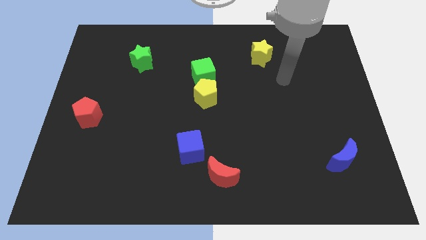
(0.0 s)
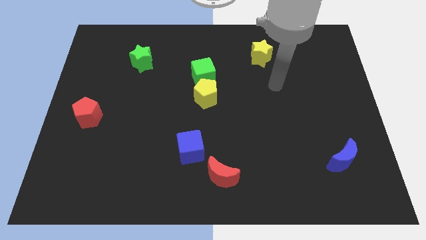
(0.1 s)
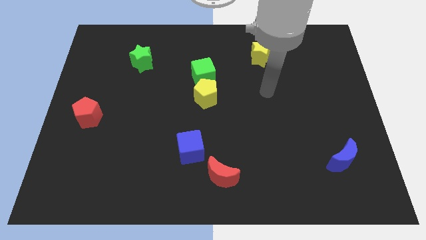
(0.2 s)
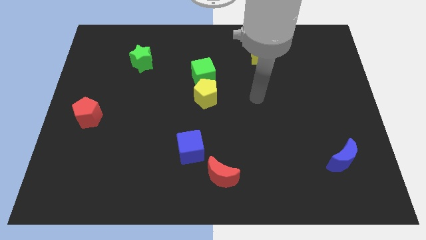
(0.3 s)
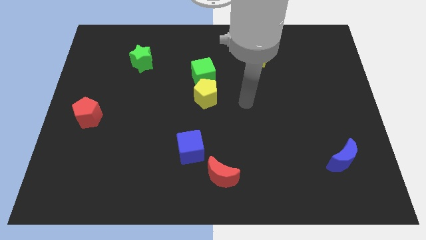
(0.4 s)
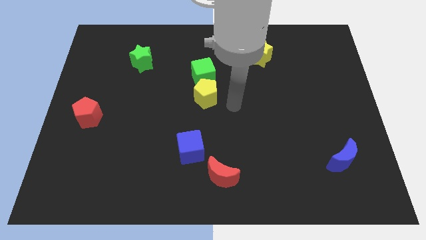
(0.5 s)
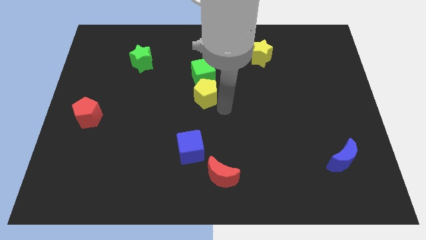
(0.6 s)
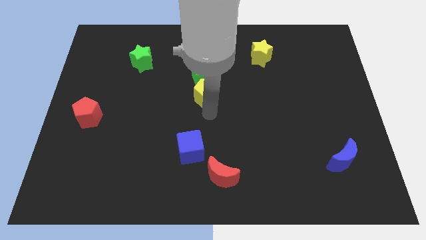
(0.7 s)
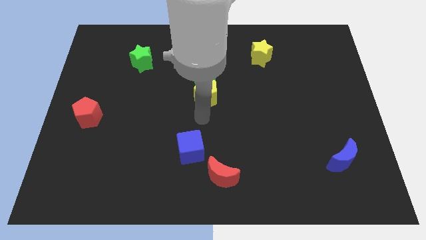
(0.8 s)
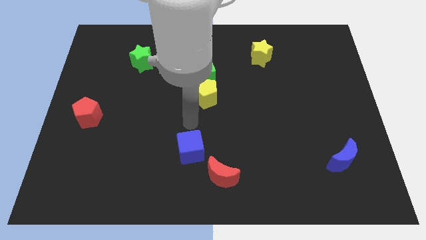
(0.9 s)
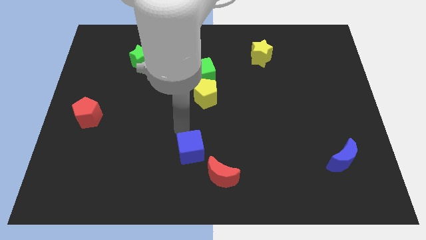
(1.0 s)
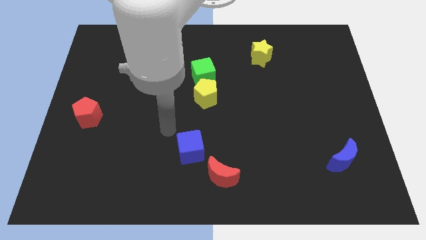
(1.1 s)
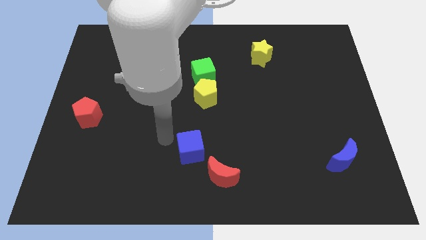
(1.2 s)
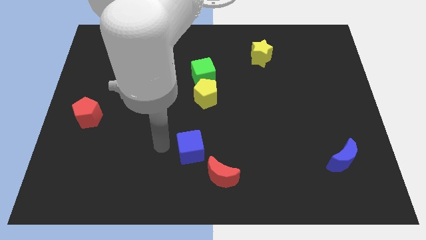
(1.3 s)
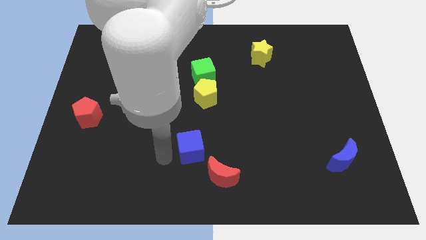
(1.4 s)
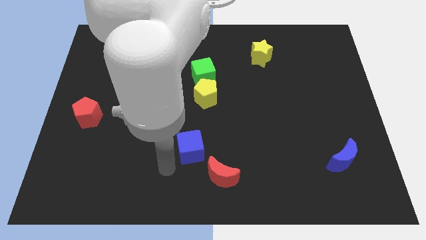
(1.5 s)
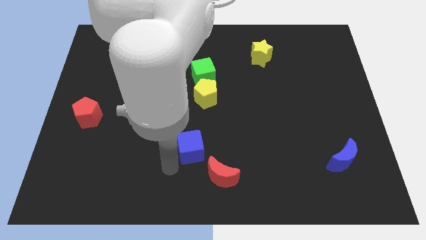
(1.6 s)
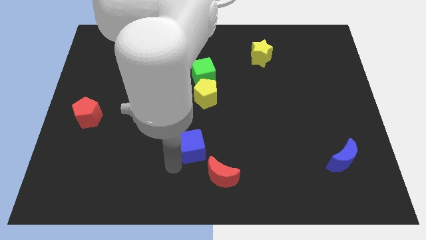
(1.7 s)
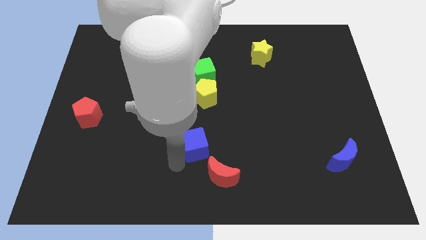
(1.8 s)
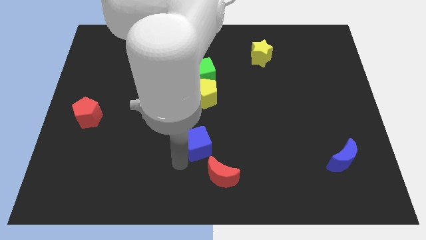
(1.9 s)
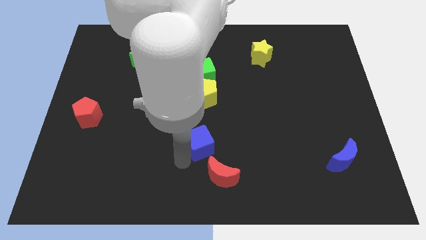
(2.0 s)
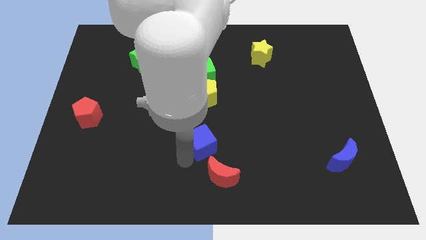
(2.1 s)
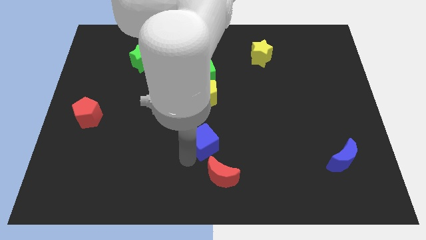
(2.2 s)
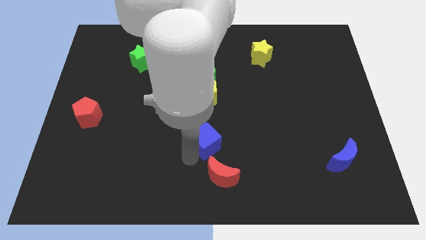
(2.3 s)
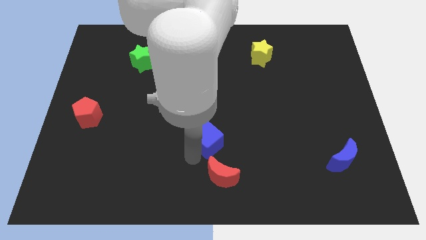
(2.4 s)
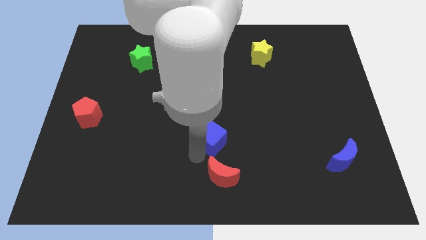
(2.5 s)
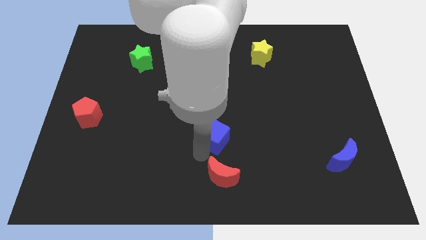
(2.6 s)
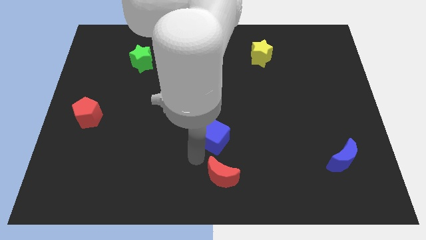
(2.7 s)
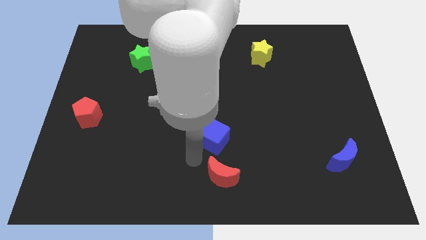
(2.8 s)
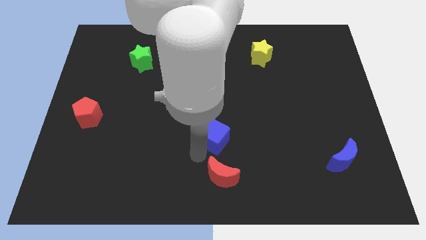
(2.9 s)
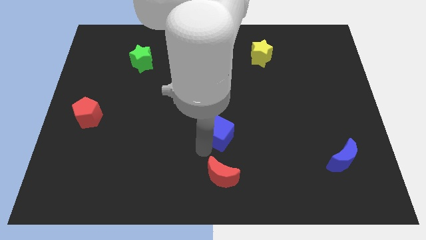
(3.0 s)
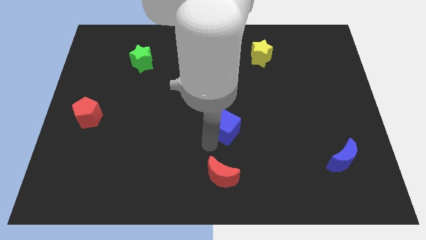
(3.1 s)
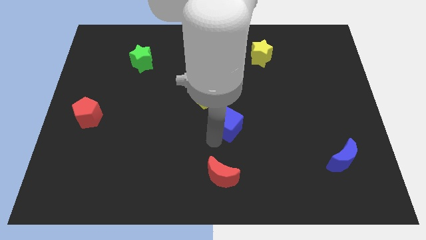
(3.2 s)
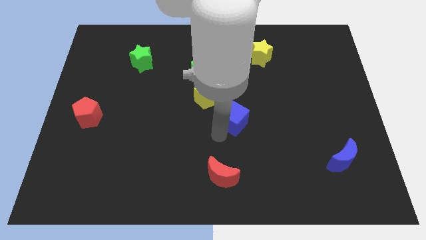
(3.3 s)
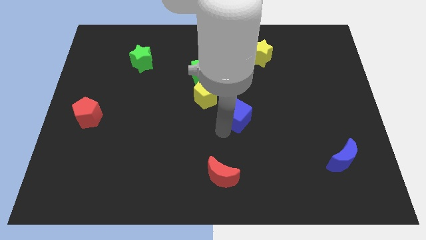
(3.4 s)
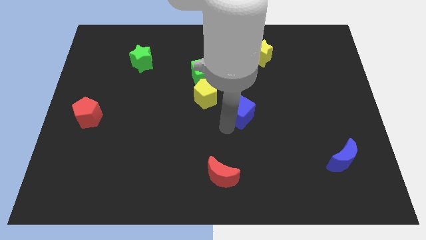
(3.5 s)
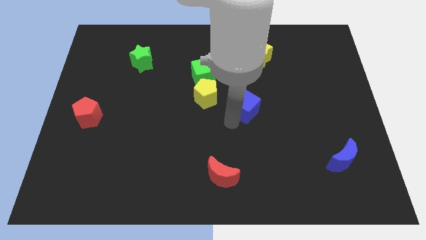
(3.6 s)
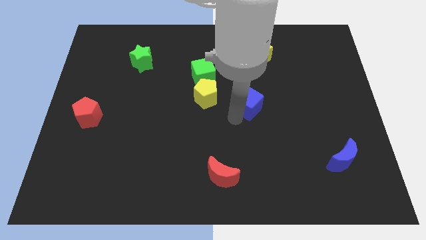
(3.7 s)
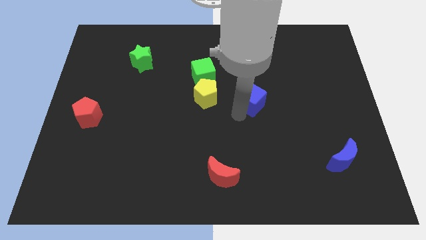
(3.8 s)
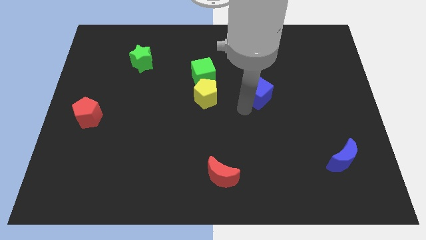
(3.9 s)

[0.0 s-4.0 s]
slide the blue cube up and then to the right

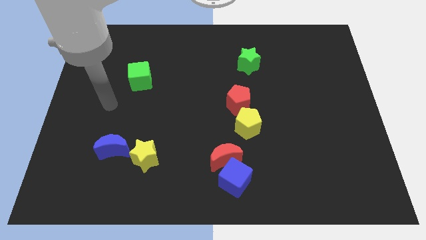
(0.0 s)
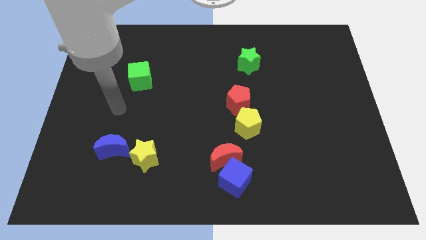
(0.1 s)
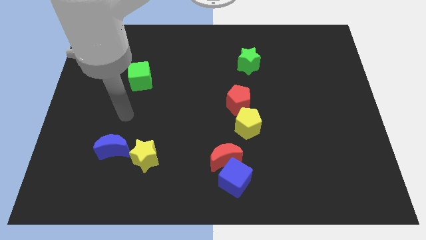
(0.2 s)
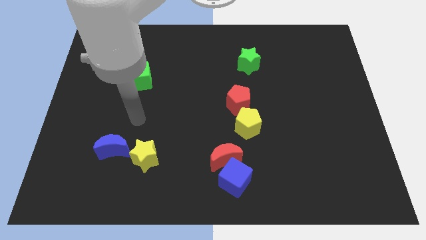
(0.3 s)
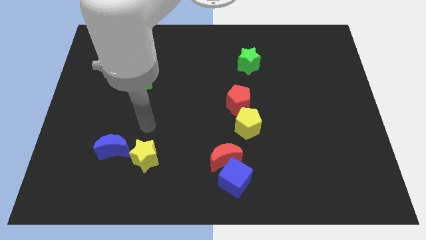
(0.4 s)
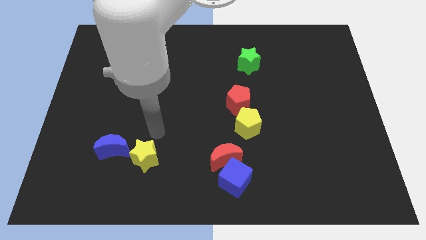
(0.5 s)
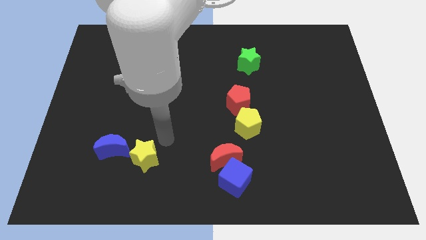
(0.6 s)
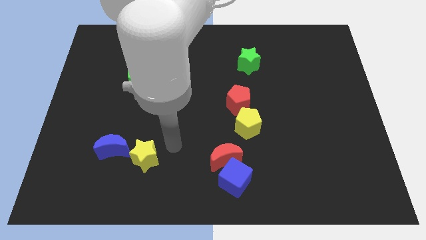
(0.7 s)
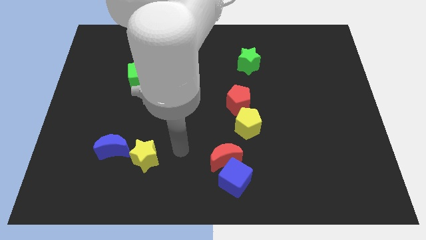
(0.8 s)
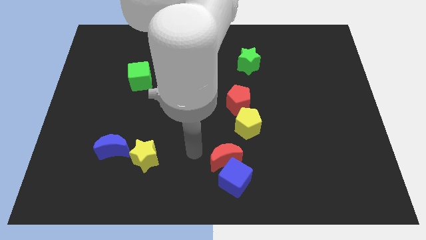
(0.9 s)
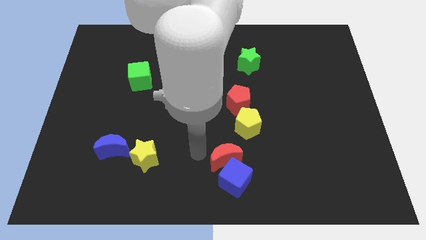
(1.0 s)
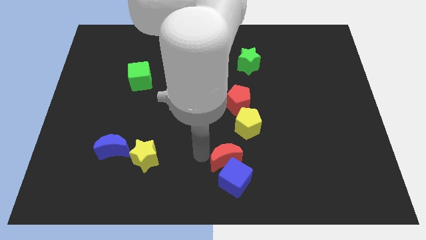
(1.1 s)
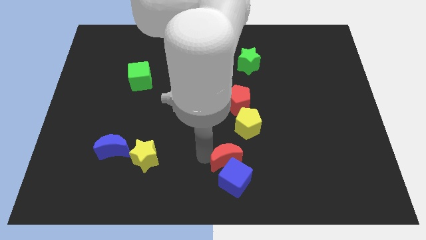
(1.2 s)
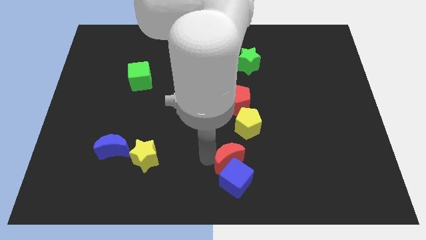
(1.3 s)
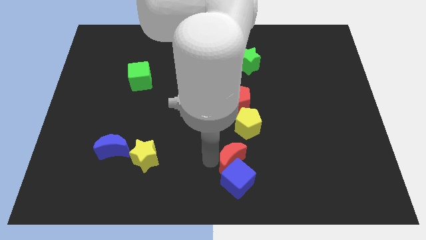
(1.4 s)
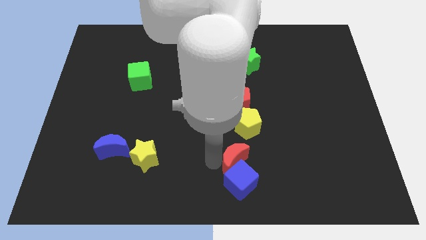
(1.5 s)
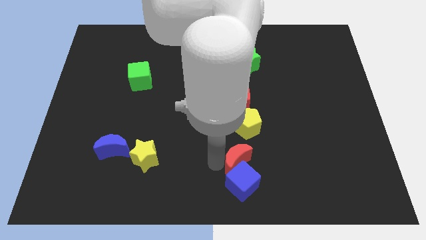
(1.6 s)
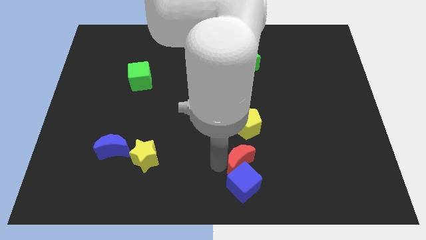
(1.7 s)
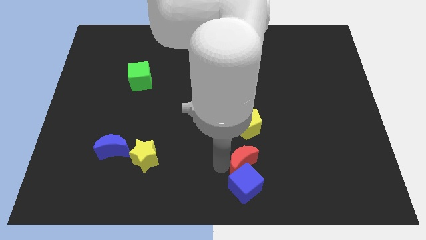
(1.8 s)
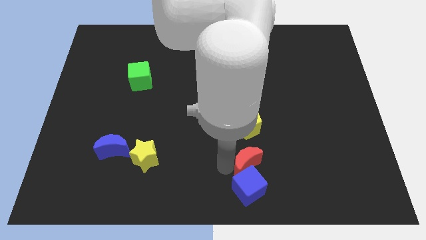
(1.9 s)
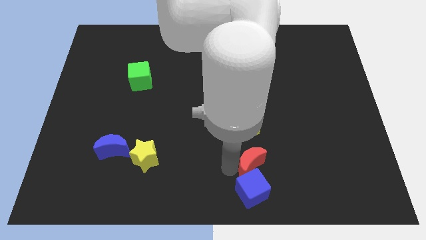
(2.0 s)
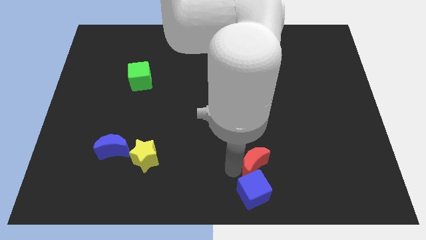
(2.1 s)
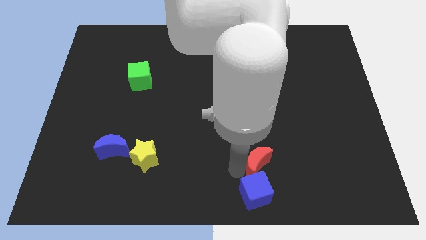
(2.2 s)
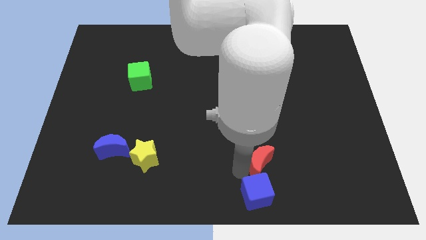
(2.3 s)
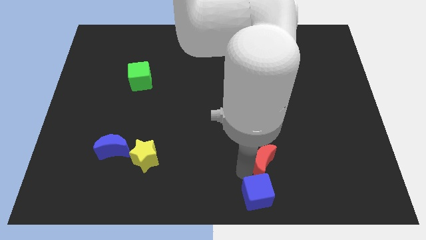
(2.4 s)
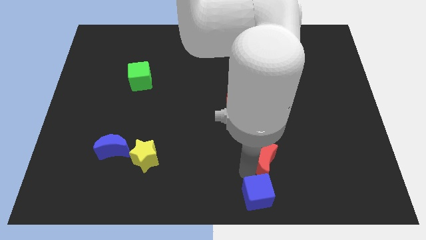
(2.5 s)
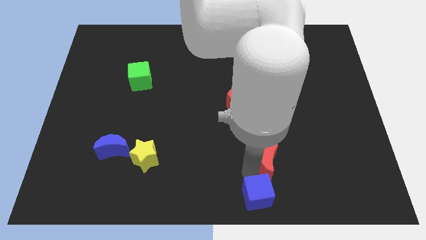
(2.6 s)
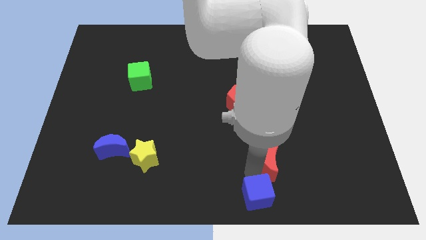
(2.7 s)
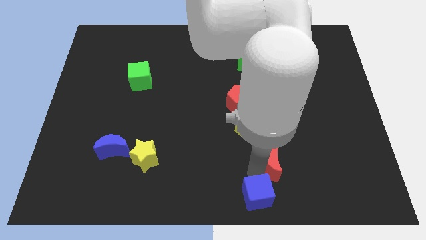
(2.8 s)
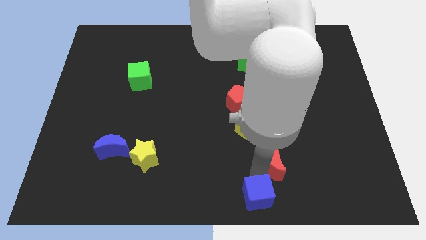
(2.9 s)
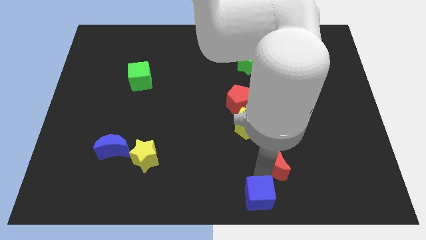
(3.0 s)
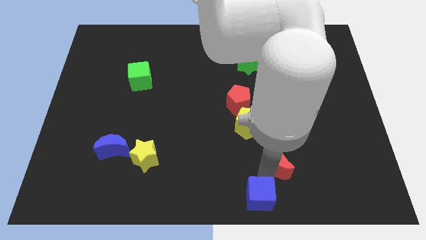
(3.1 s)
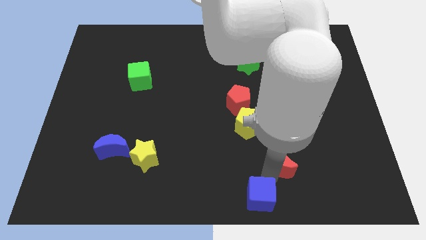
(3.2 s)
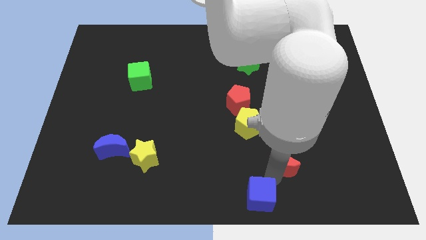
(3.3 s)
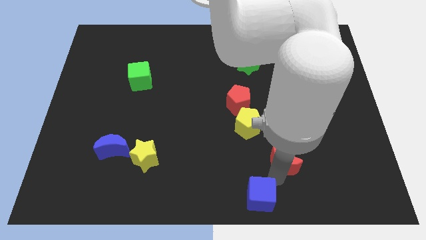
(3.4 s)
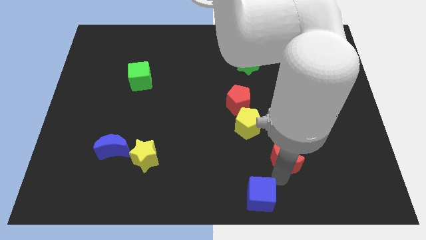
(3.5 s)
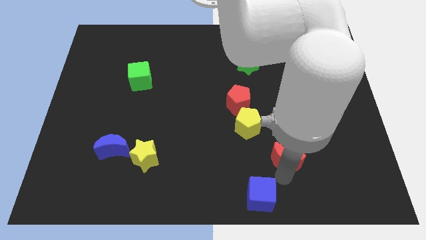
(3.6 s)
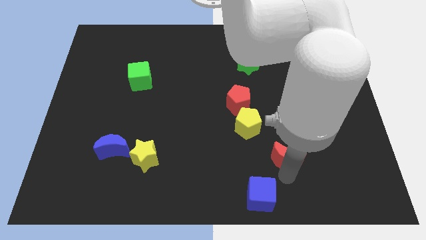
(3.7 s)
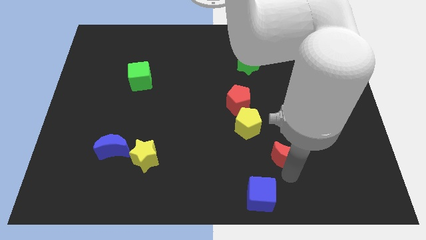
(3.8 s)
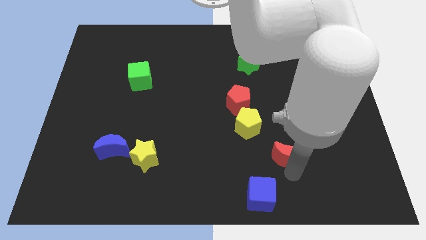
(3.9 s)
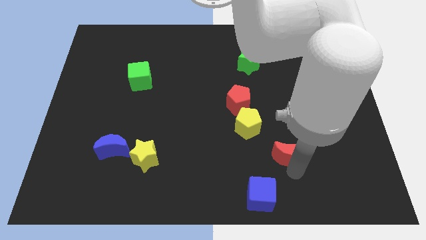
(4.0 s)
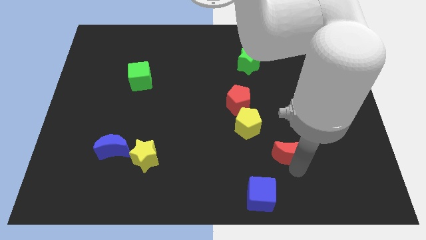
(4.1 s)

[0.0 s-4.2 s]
slide the red moon up and to the right diagonally a little bit
